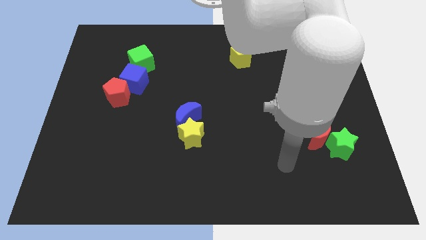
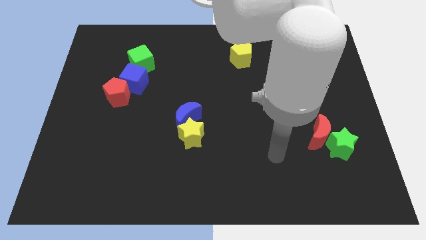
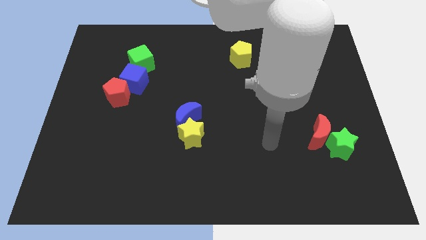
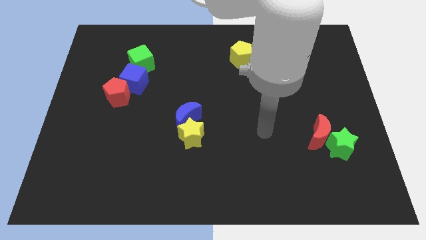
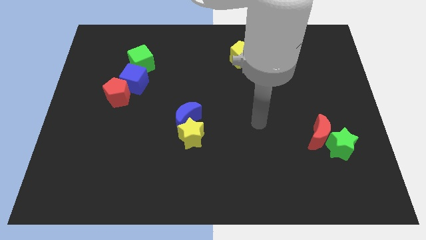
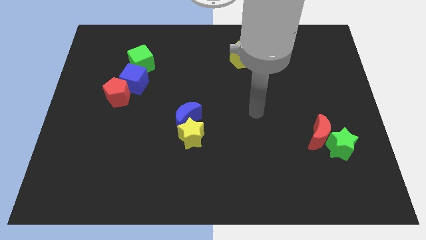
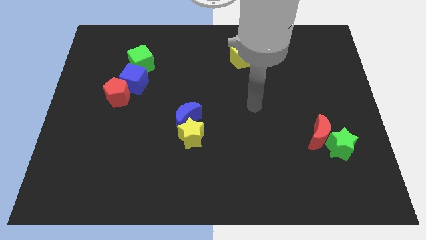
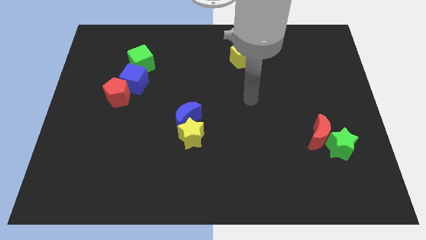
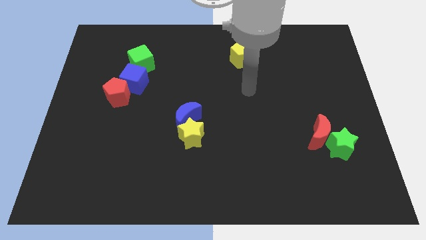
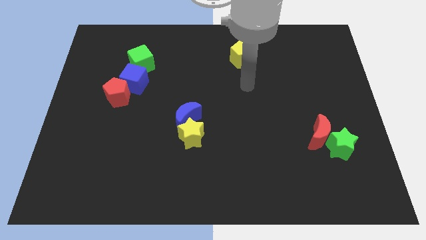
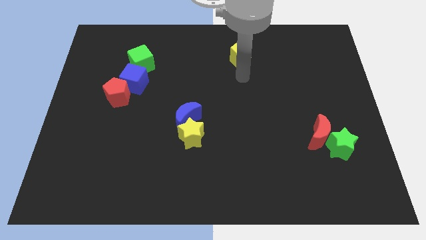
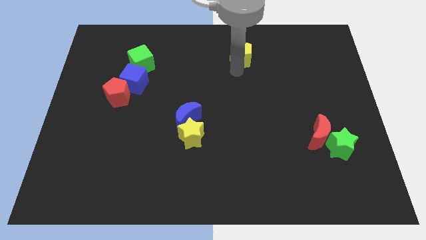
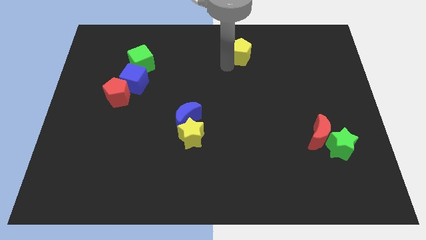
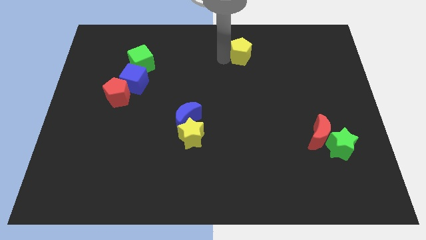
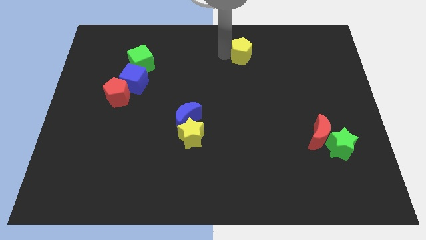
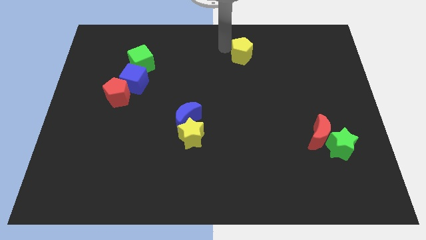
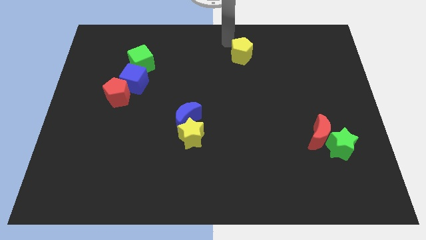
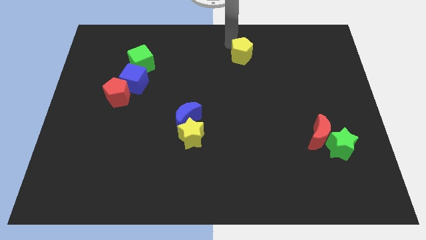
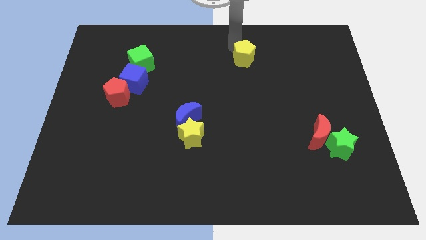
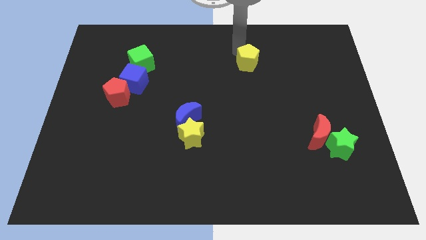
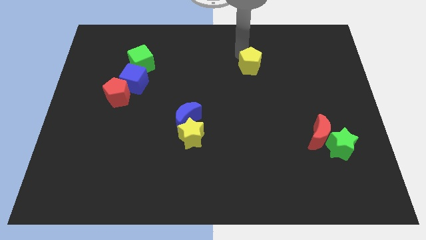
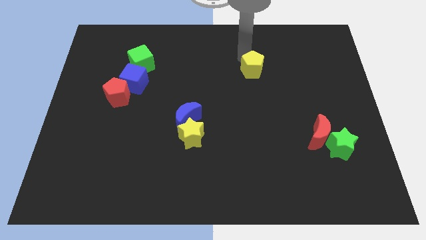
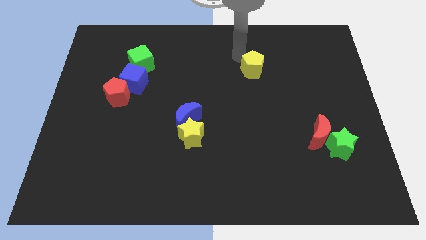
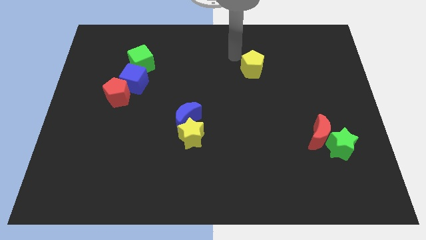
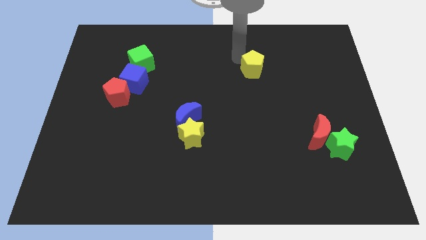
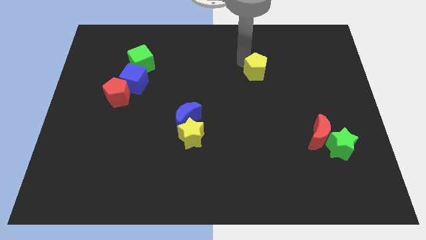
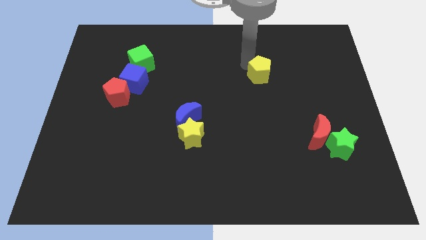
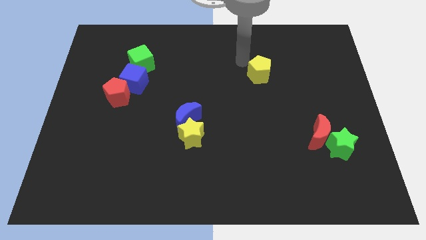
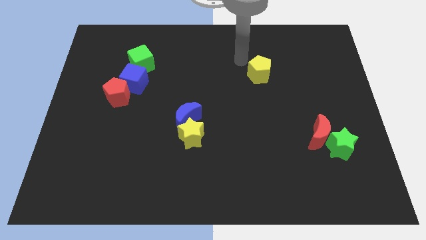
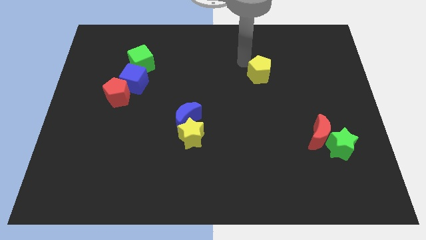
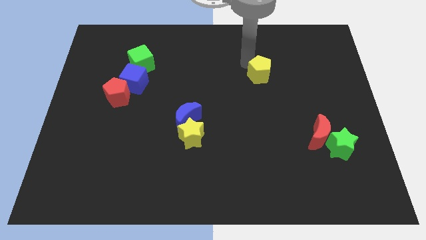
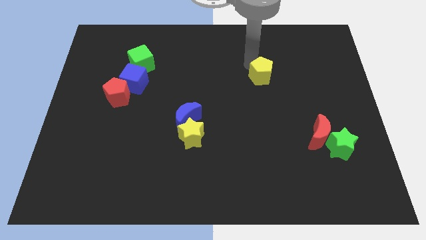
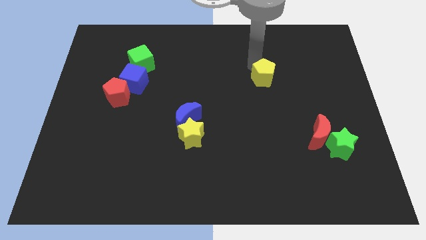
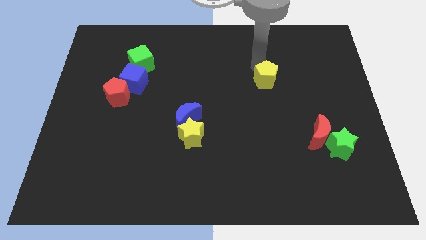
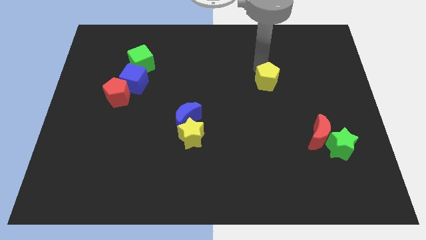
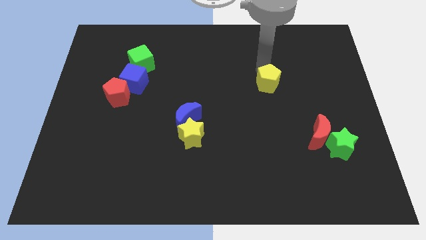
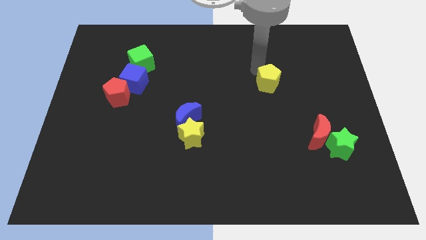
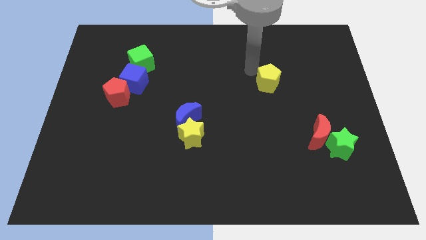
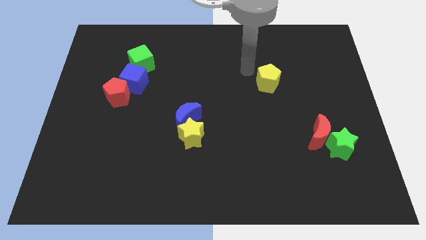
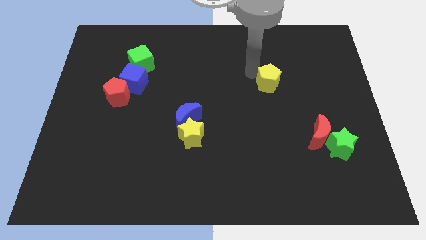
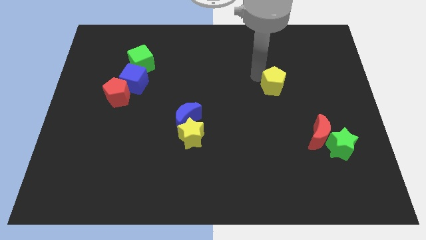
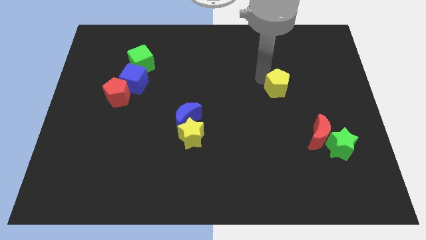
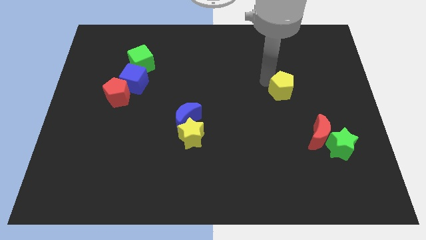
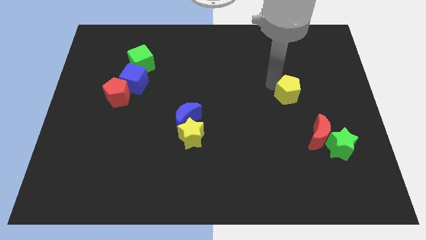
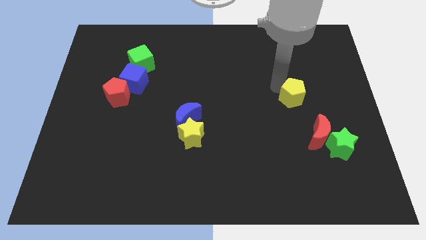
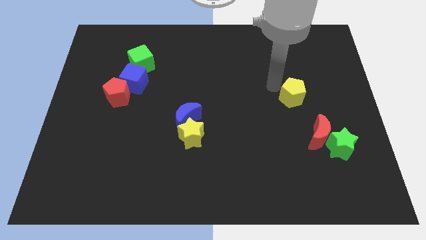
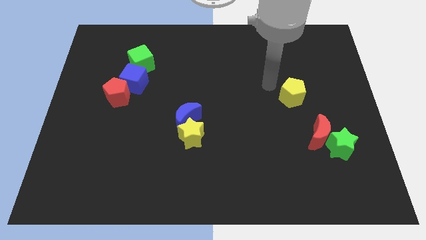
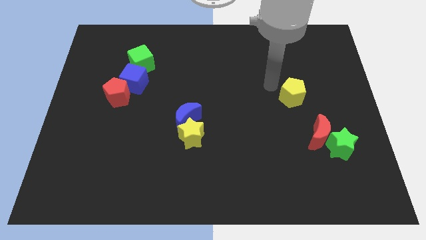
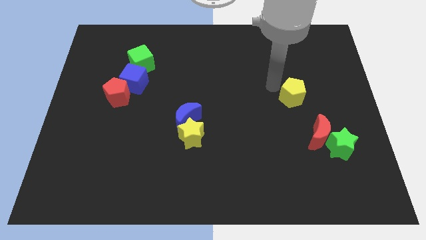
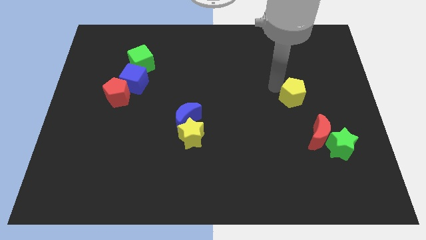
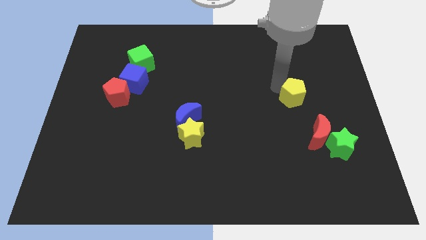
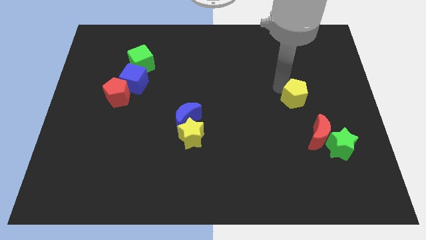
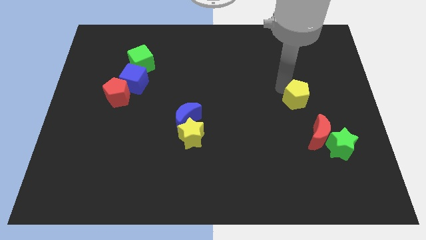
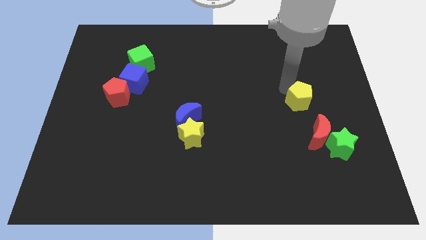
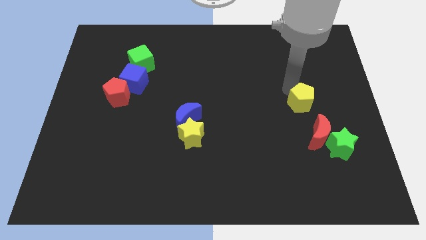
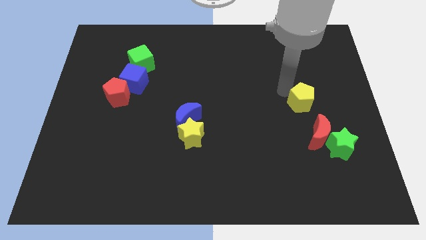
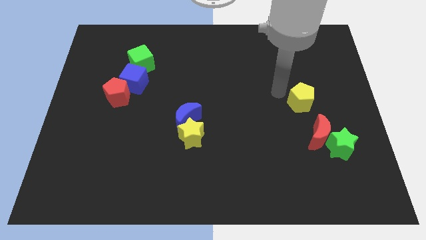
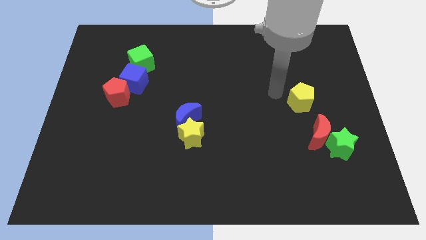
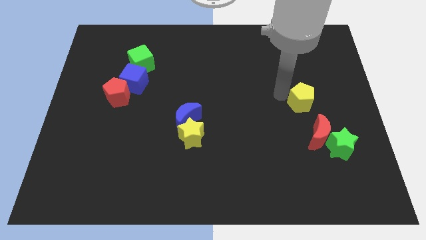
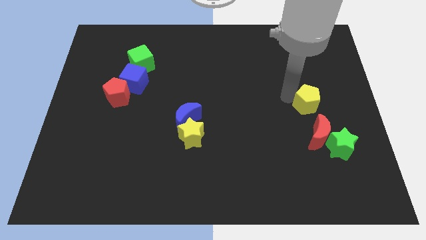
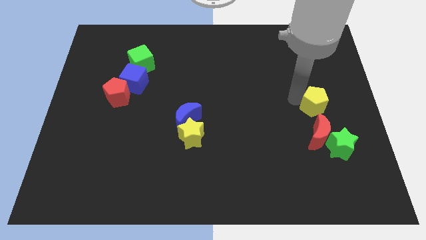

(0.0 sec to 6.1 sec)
push the yellow pentagon to the top of the green star

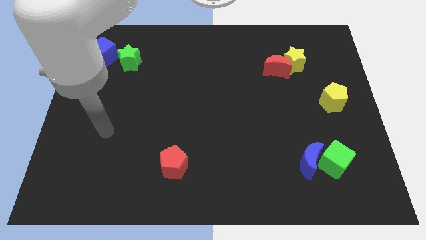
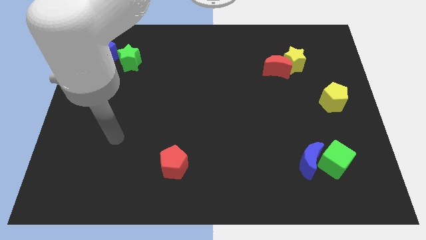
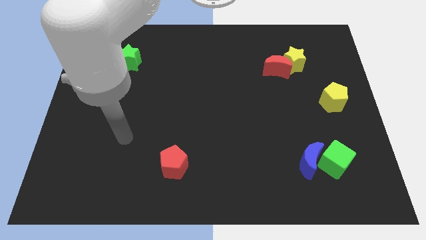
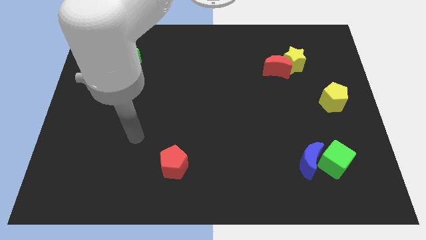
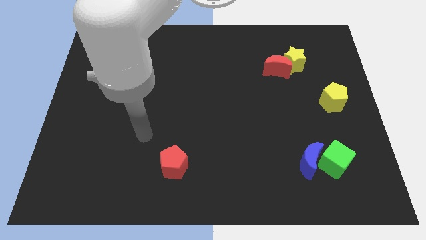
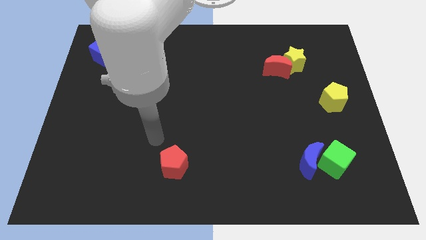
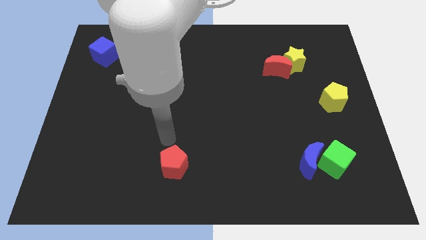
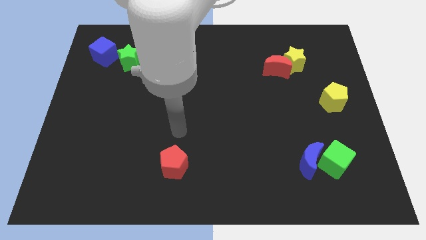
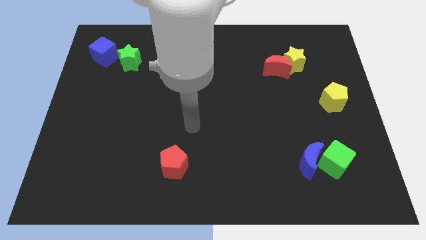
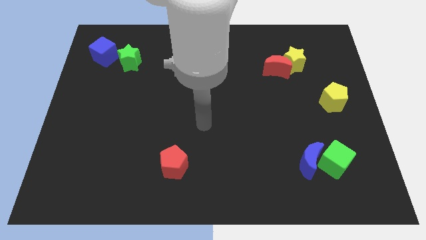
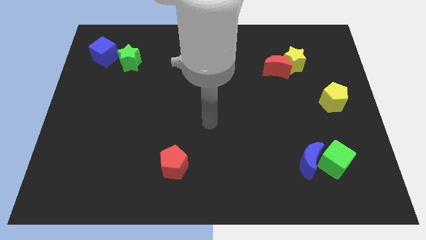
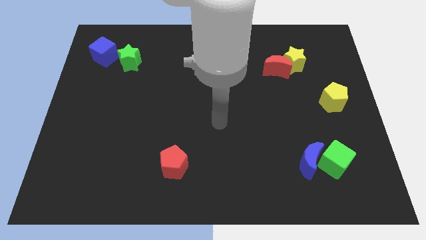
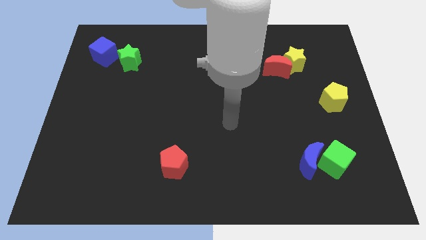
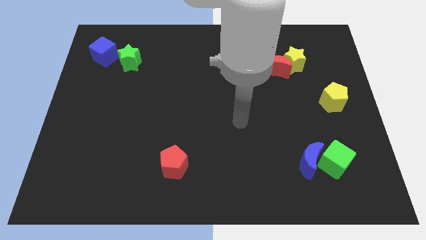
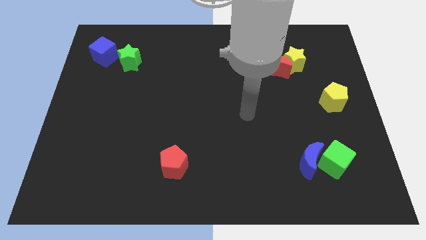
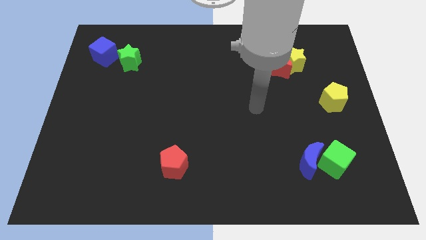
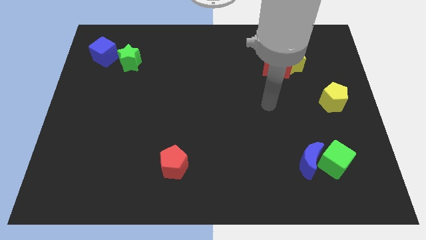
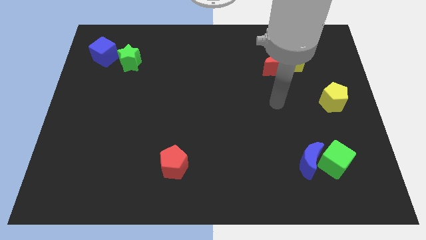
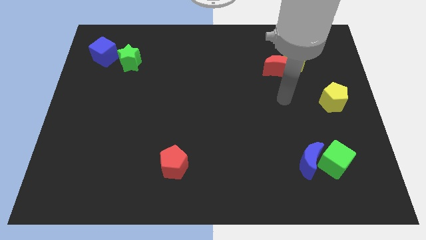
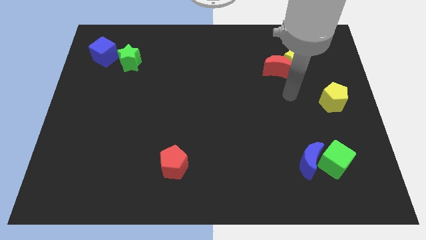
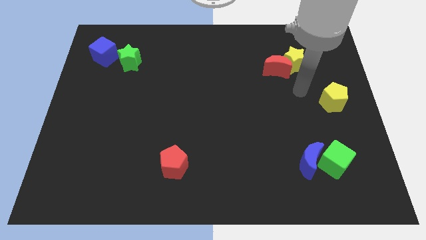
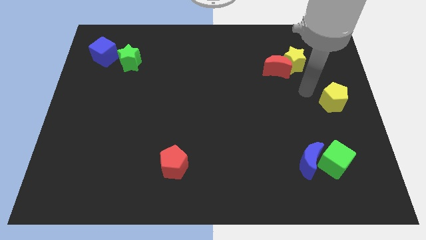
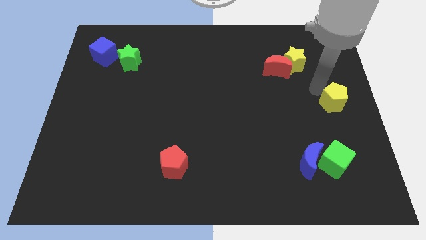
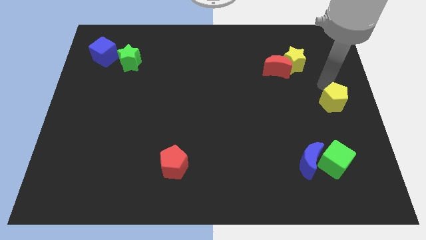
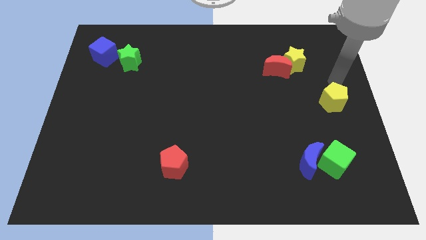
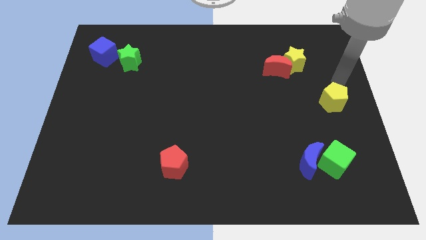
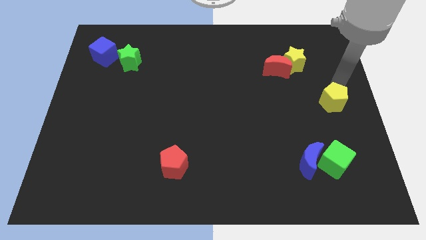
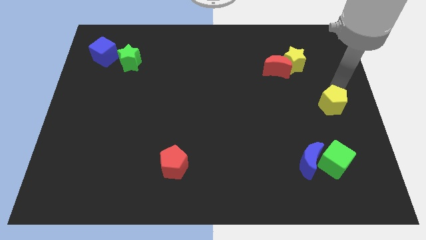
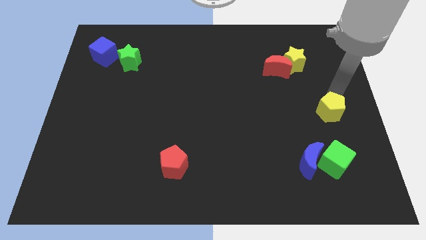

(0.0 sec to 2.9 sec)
move the yellow pentagon above the green cube
